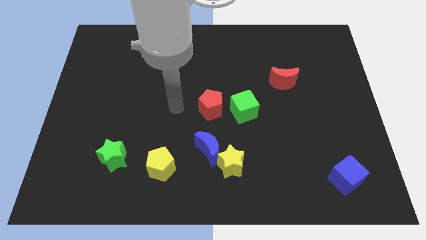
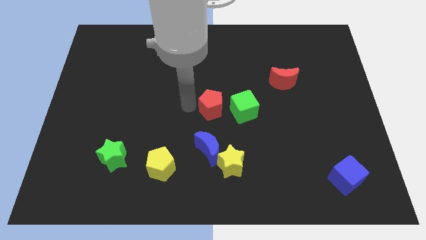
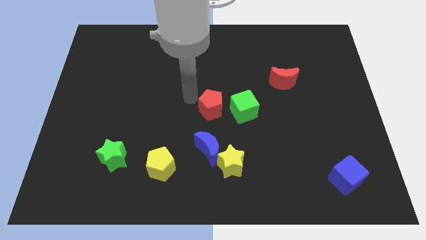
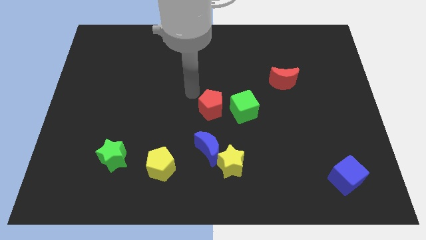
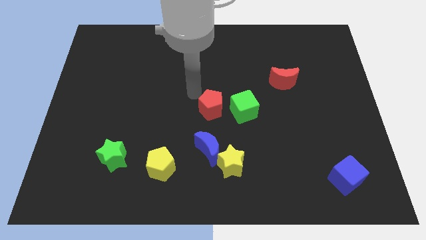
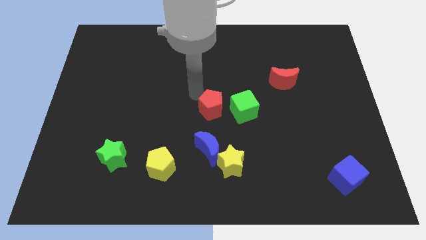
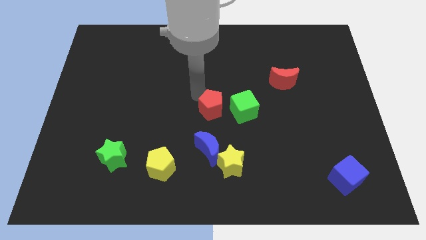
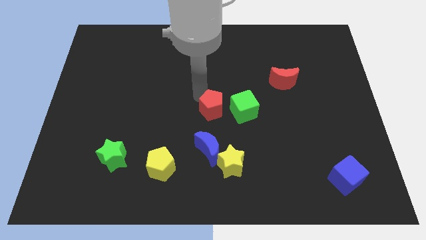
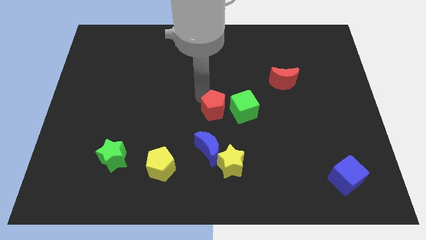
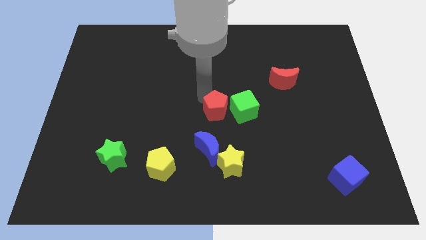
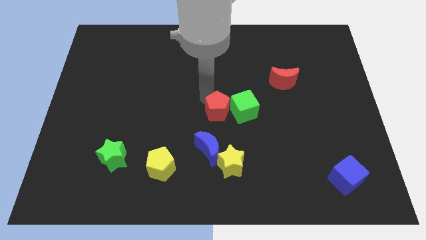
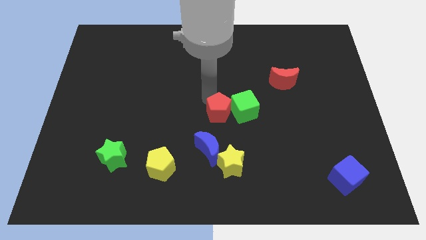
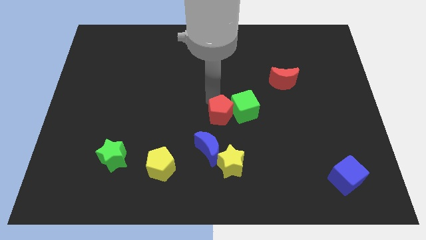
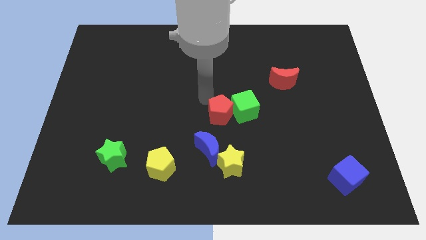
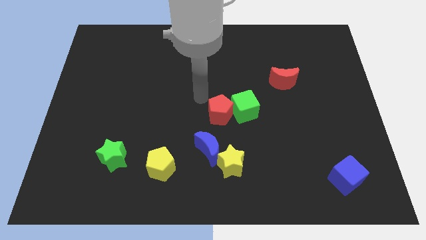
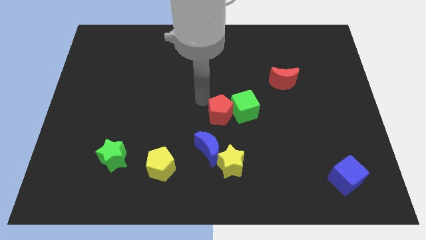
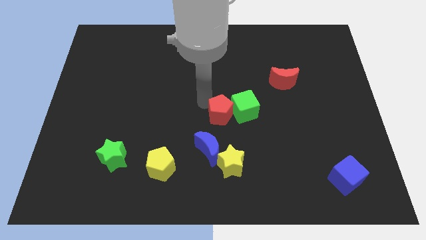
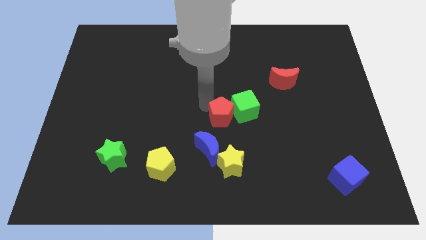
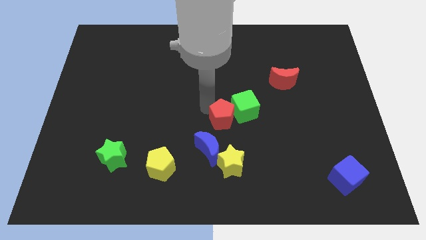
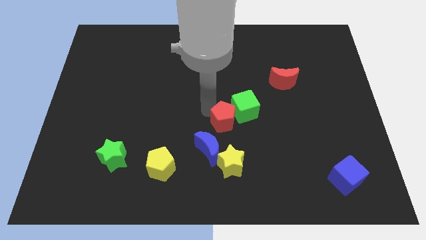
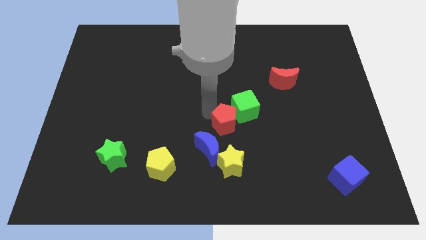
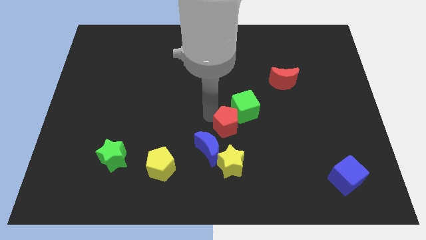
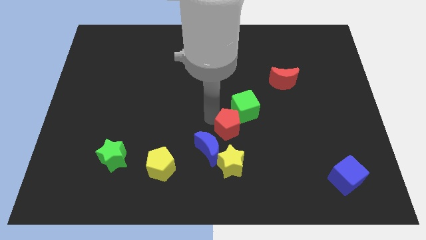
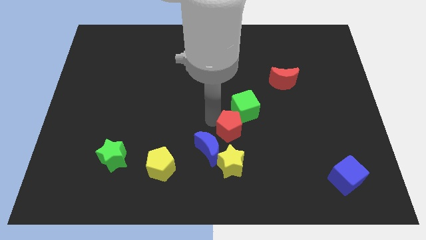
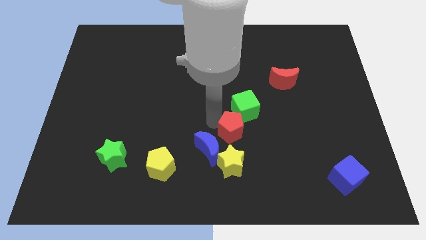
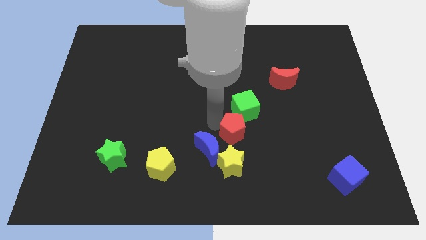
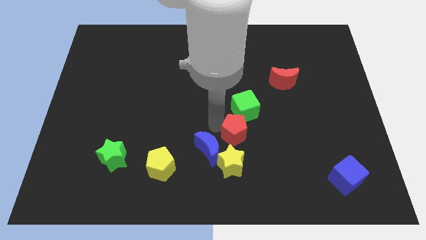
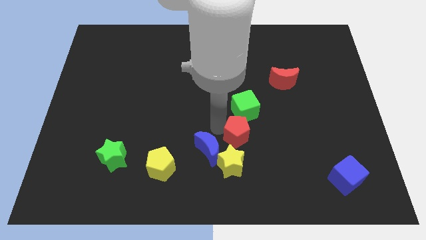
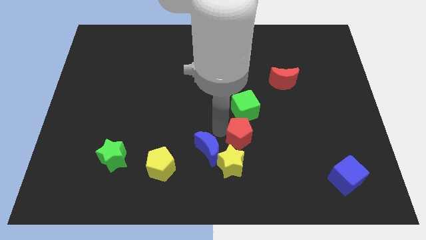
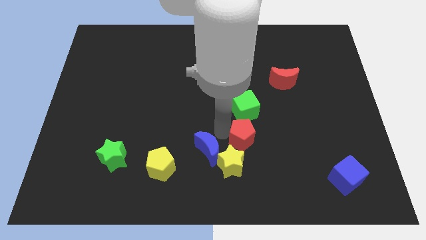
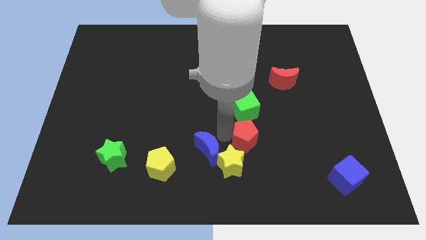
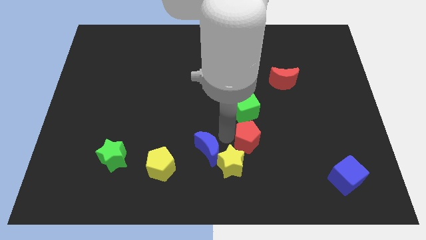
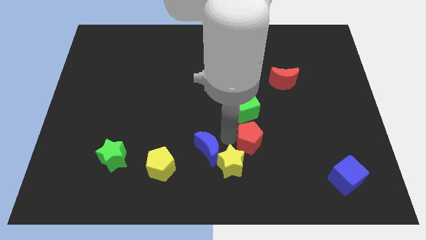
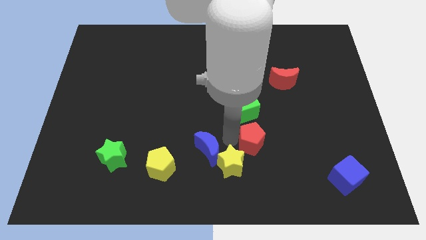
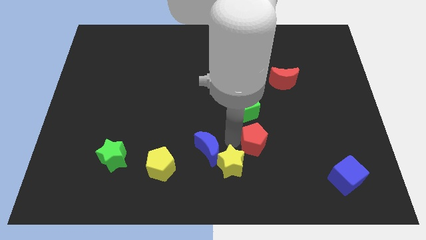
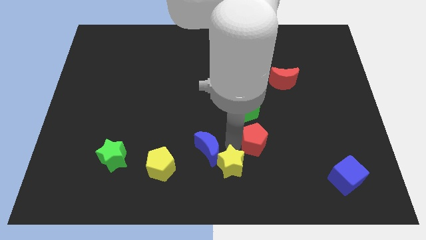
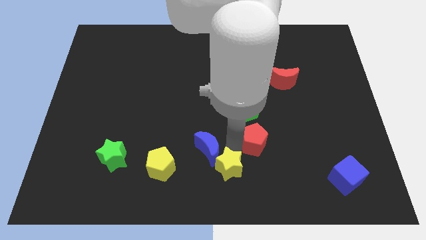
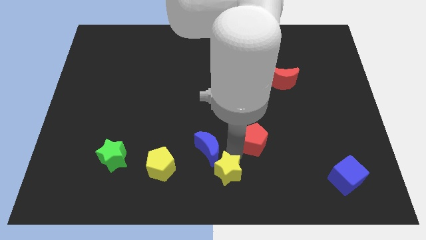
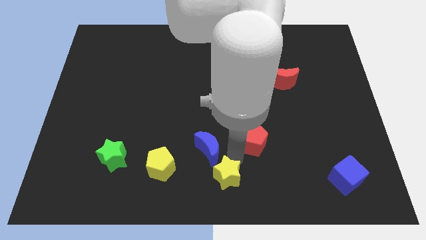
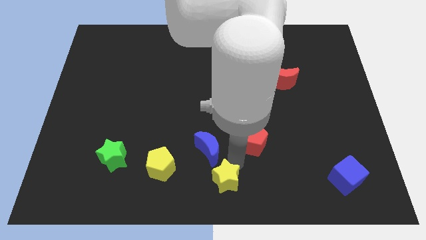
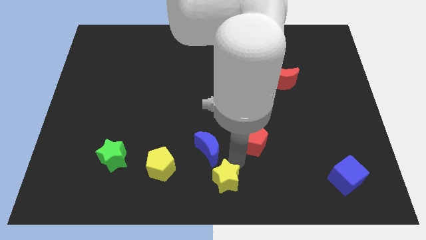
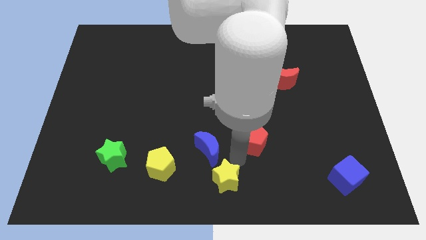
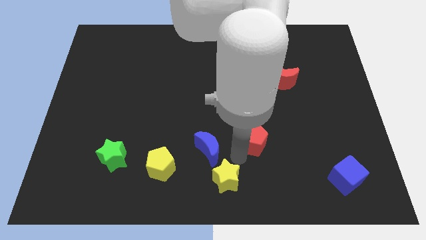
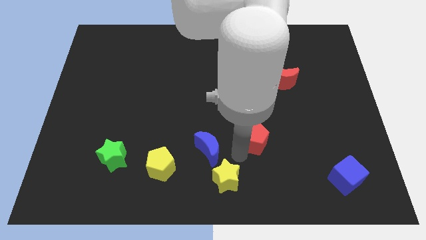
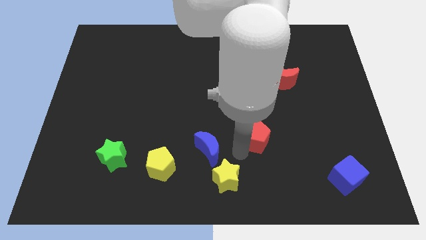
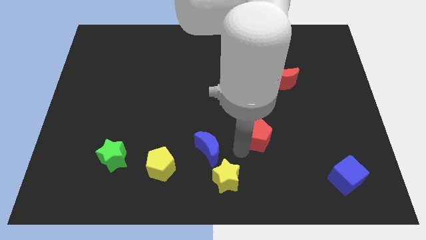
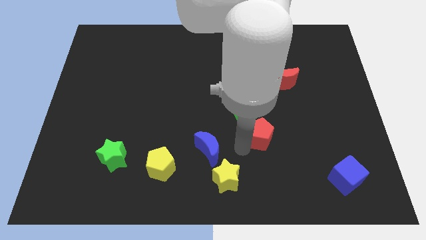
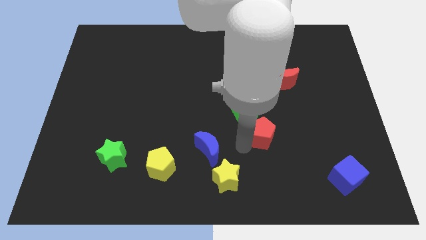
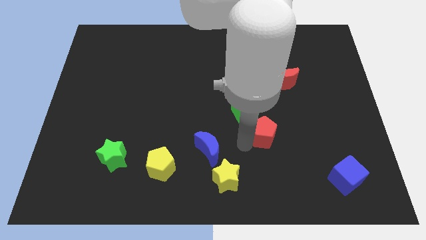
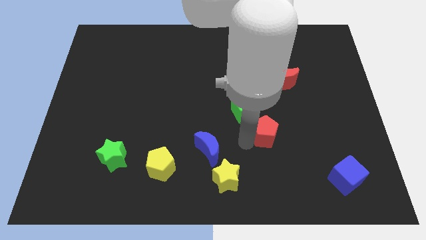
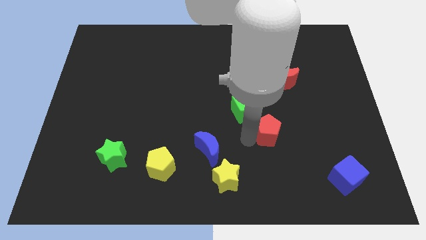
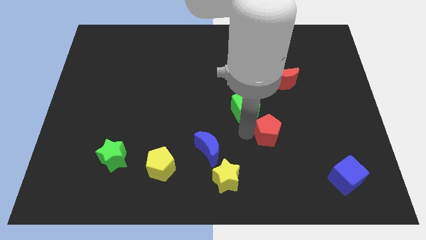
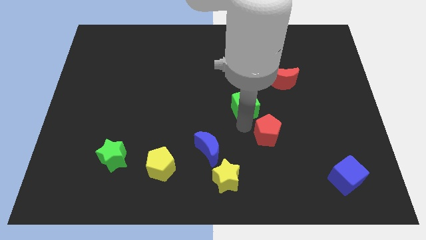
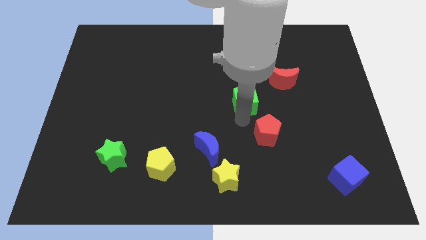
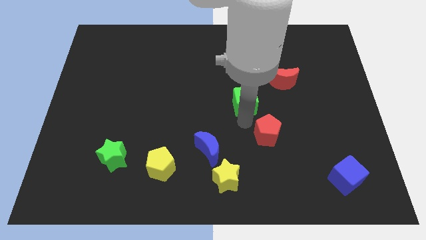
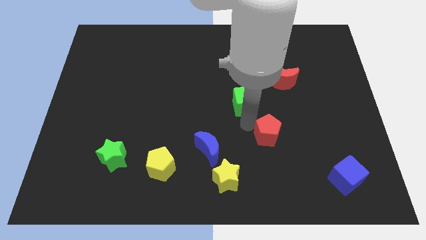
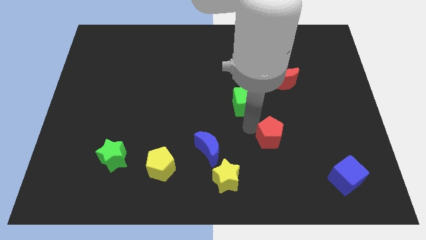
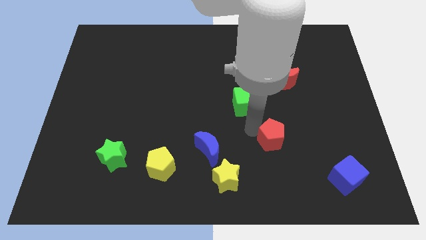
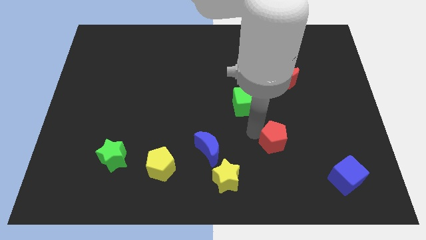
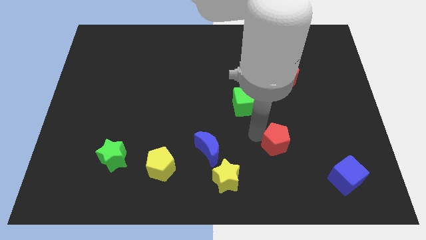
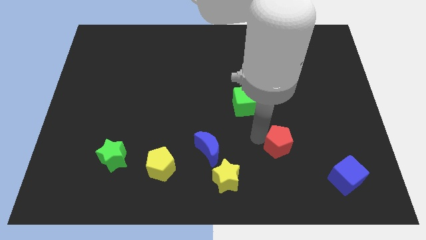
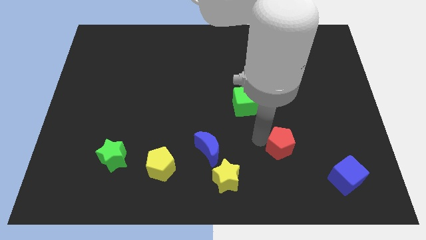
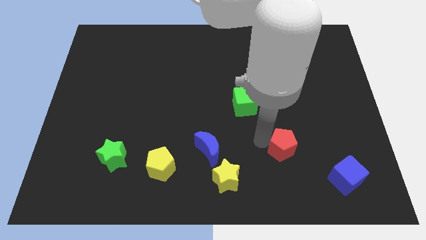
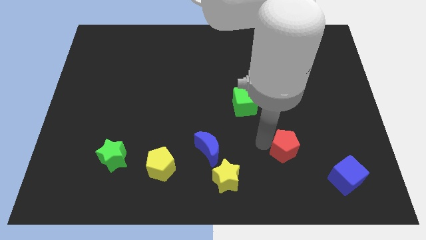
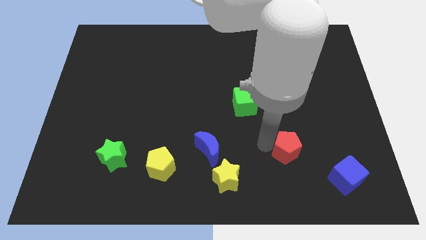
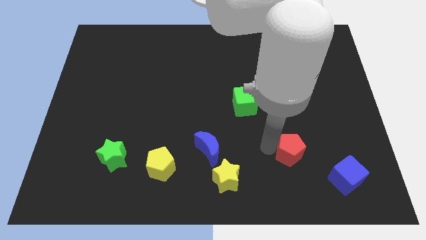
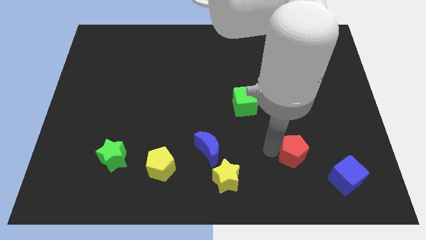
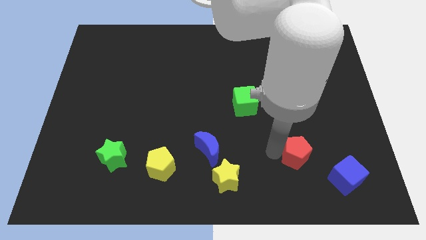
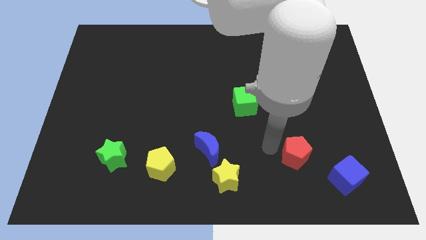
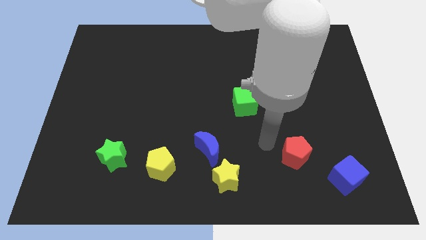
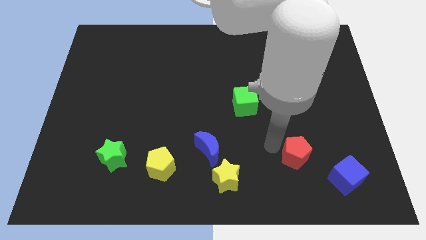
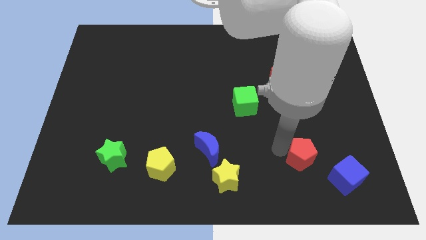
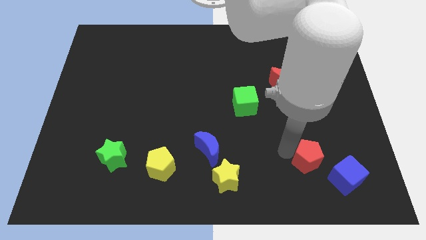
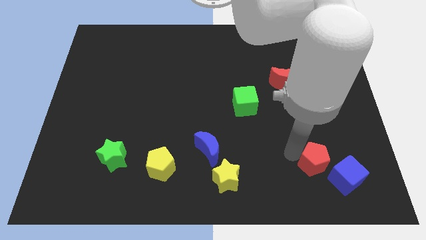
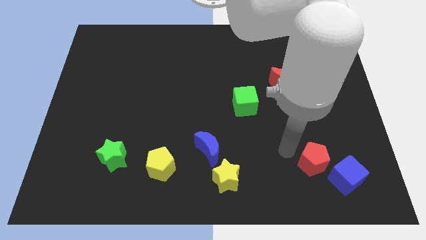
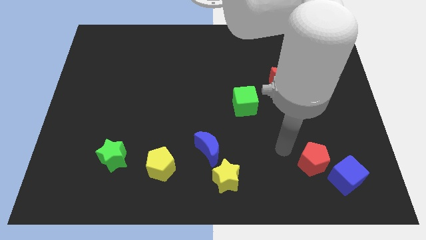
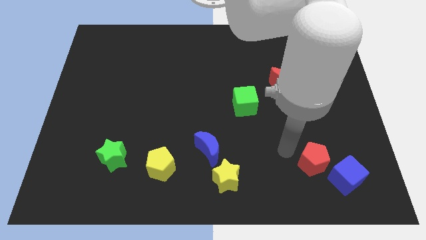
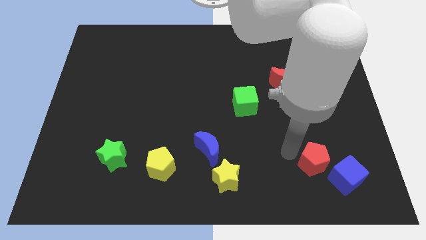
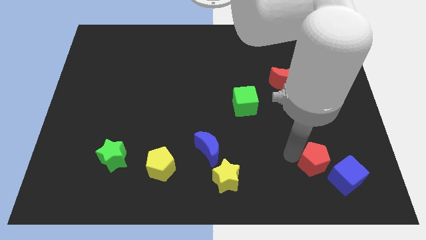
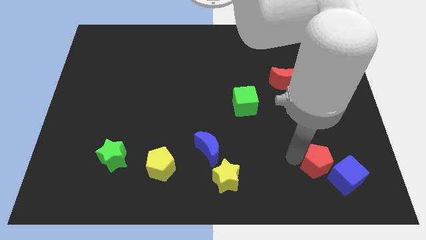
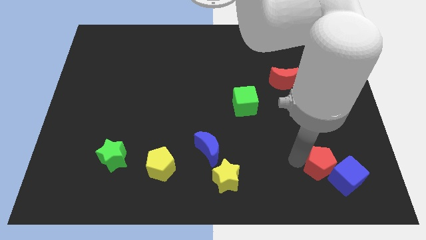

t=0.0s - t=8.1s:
push the red pentagon close to the blue cube
